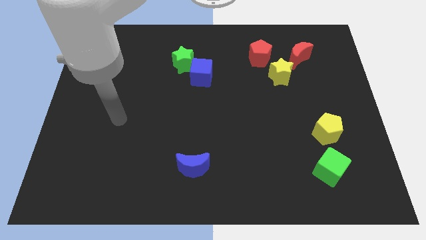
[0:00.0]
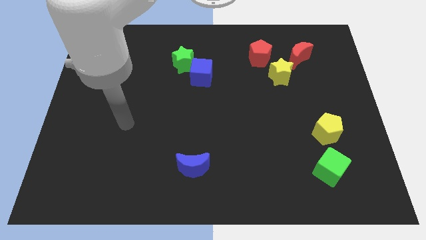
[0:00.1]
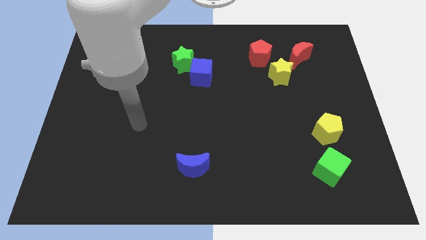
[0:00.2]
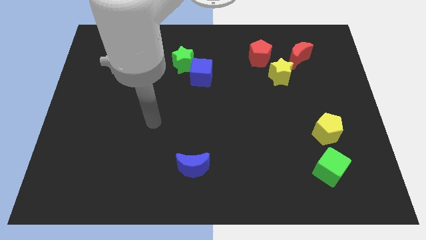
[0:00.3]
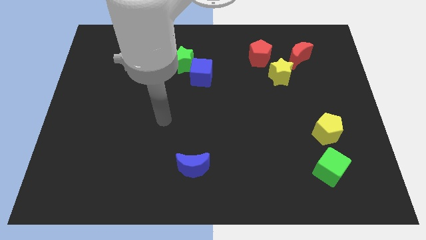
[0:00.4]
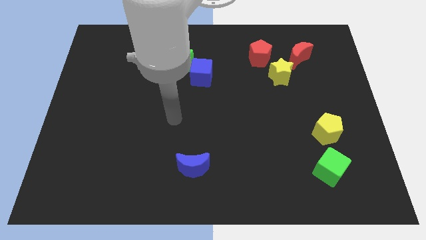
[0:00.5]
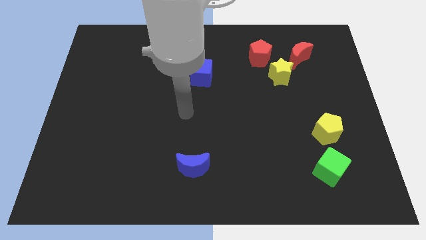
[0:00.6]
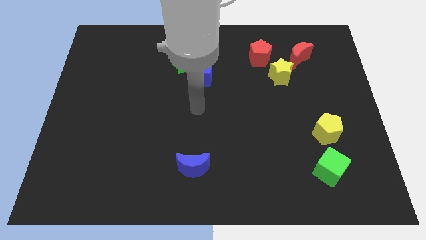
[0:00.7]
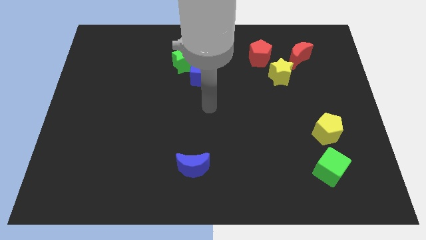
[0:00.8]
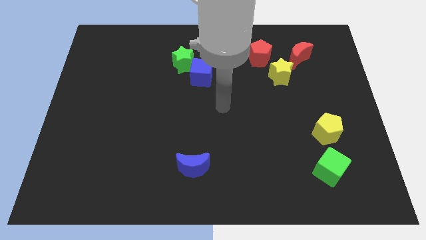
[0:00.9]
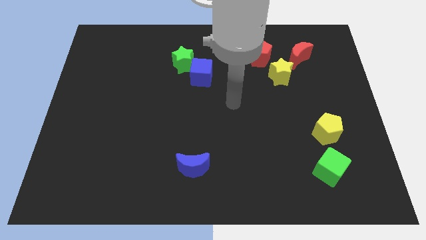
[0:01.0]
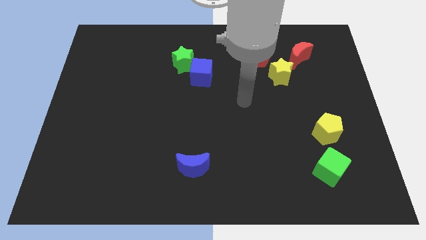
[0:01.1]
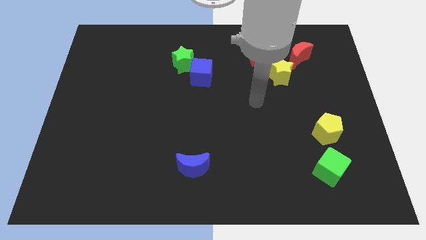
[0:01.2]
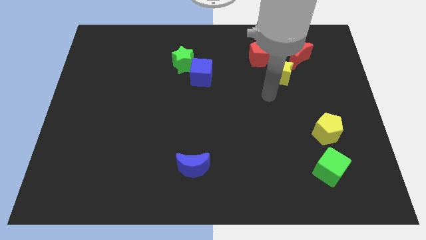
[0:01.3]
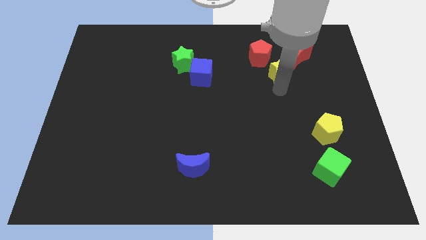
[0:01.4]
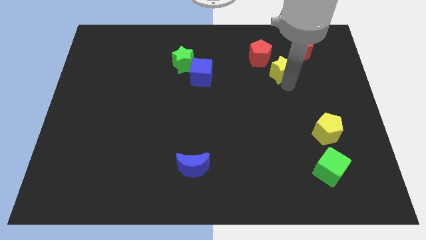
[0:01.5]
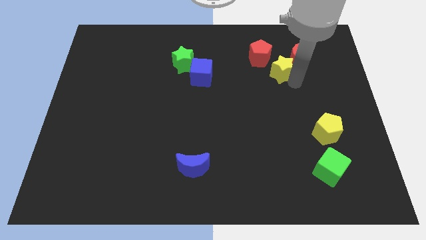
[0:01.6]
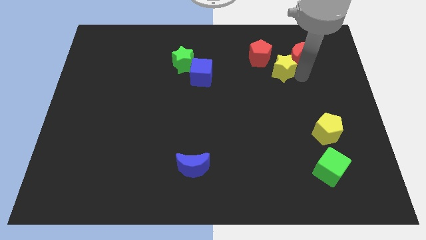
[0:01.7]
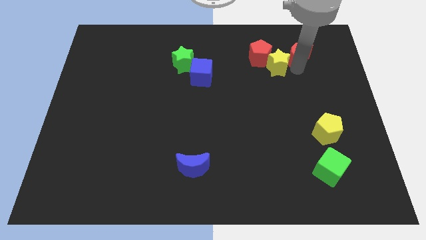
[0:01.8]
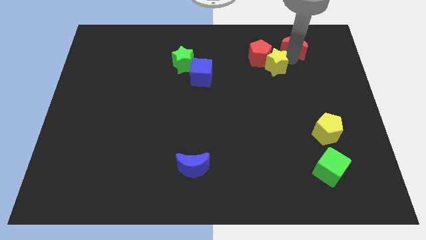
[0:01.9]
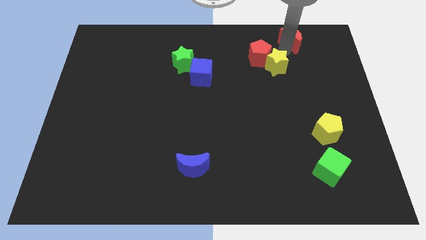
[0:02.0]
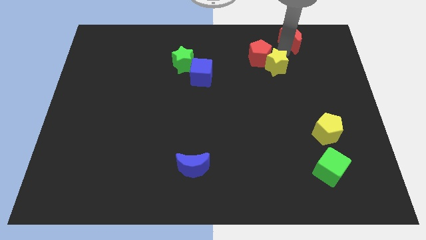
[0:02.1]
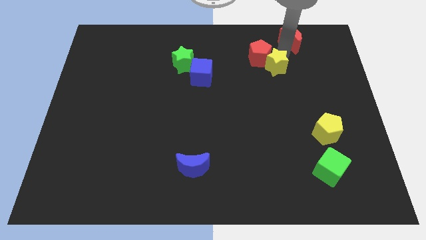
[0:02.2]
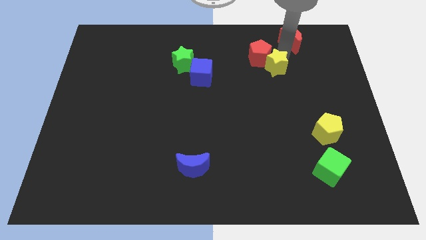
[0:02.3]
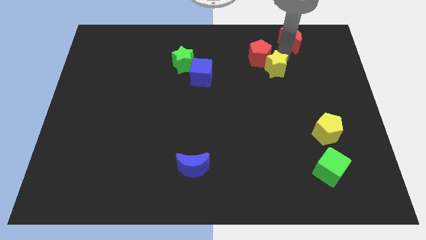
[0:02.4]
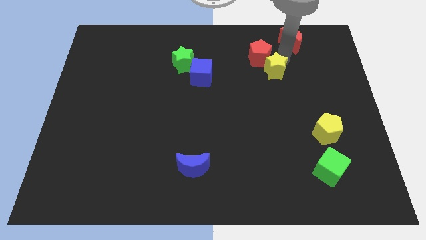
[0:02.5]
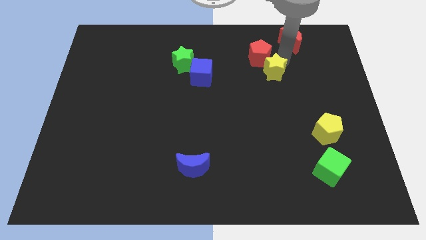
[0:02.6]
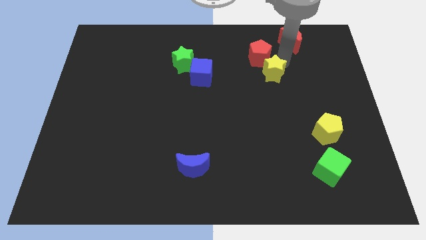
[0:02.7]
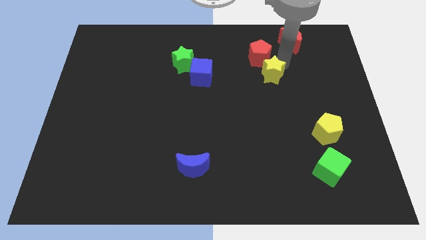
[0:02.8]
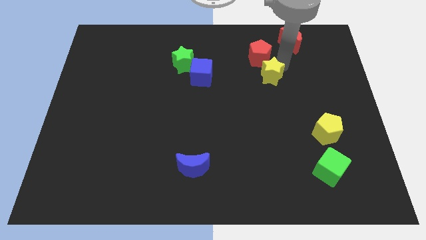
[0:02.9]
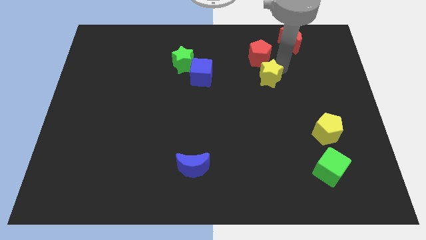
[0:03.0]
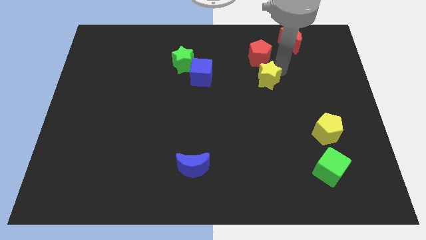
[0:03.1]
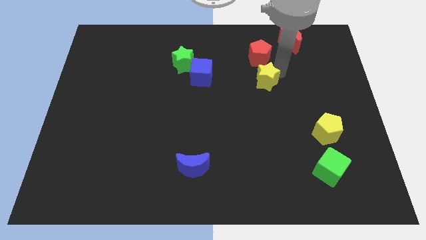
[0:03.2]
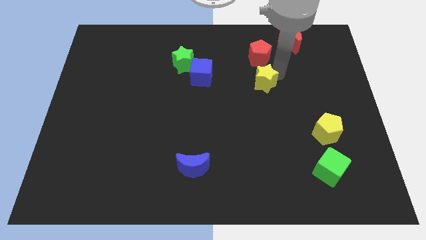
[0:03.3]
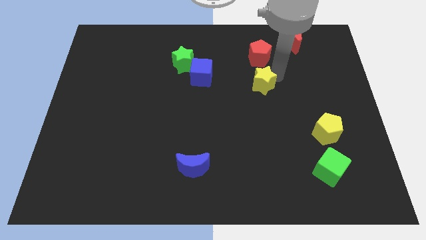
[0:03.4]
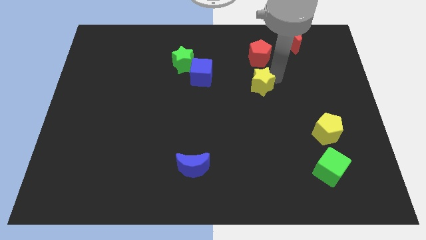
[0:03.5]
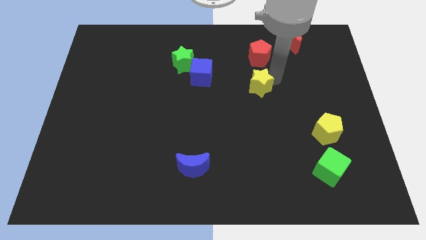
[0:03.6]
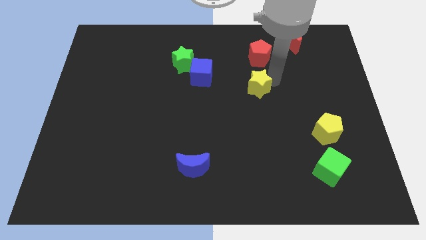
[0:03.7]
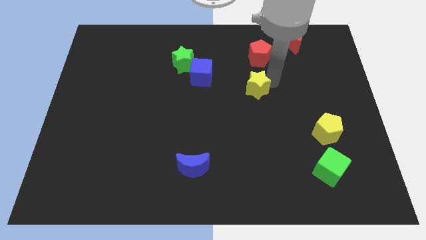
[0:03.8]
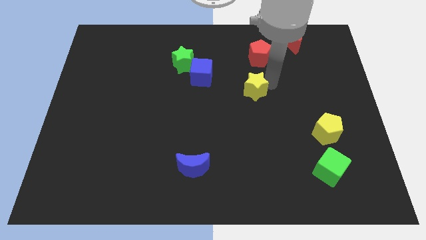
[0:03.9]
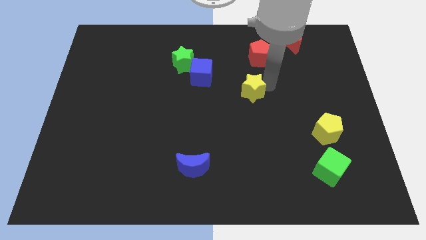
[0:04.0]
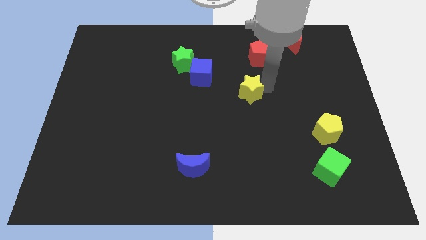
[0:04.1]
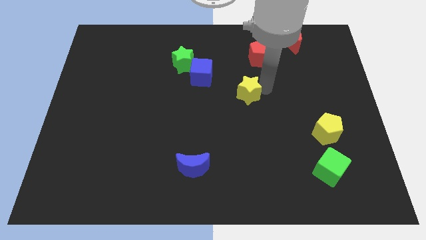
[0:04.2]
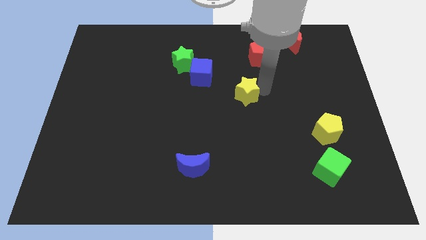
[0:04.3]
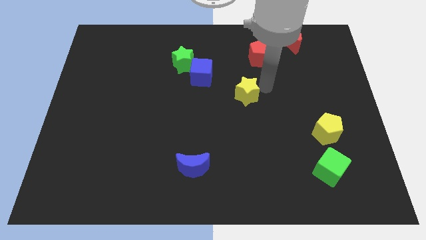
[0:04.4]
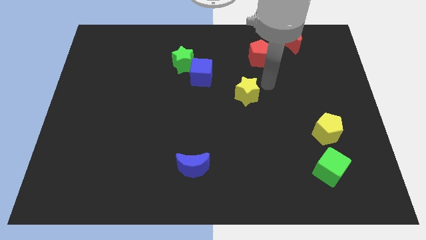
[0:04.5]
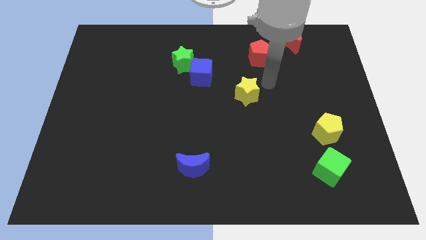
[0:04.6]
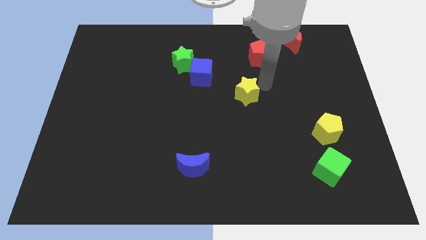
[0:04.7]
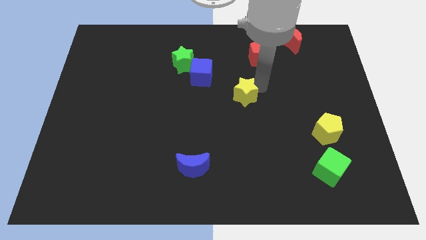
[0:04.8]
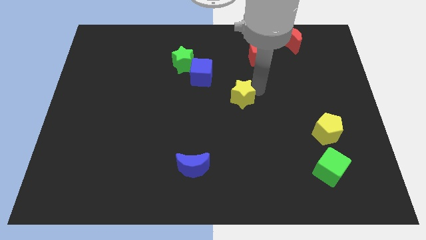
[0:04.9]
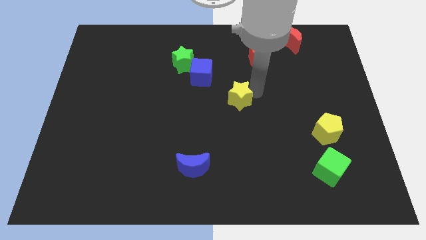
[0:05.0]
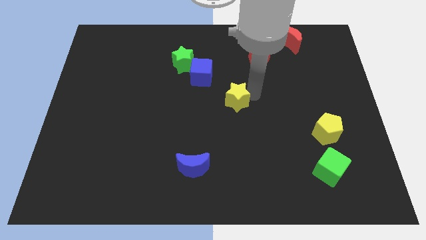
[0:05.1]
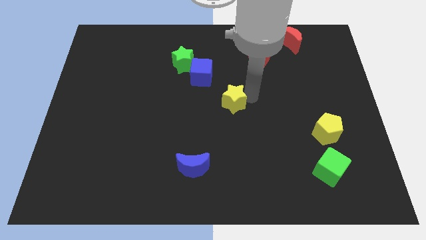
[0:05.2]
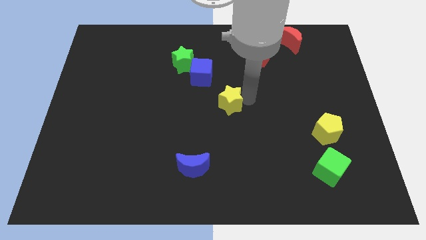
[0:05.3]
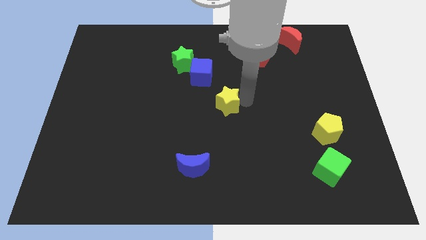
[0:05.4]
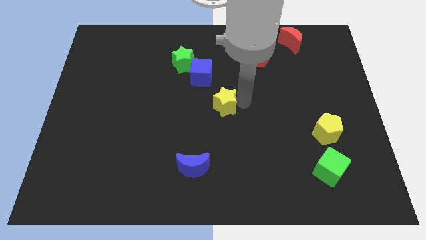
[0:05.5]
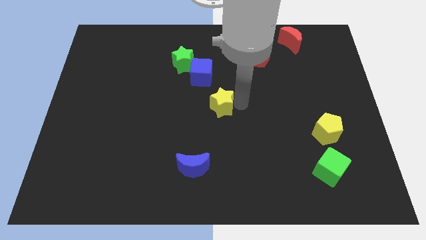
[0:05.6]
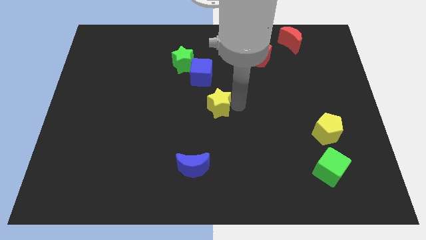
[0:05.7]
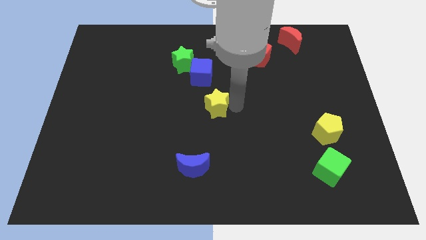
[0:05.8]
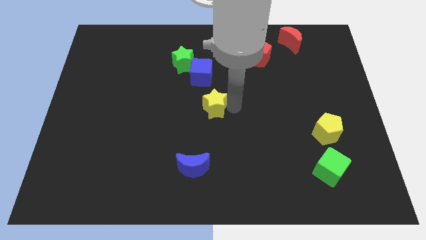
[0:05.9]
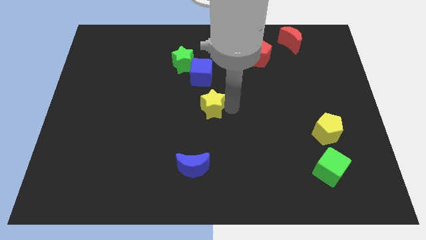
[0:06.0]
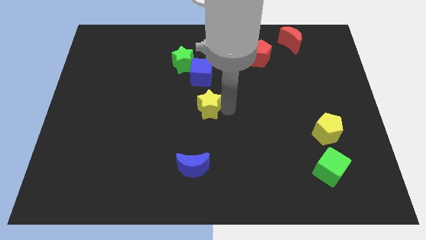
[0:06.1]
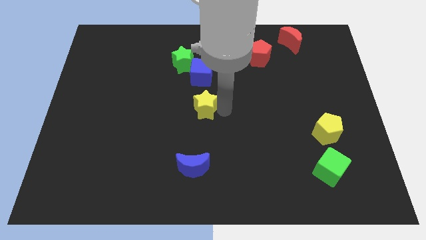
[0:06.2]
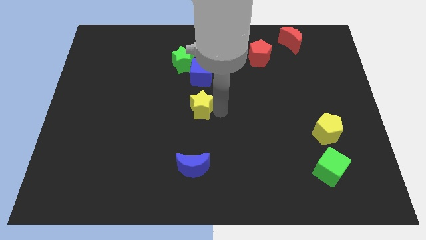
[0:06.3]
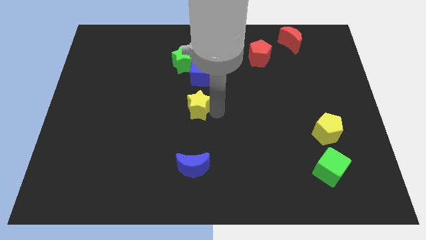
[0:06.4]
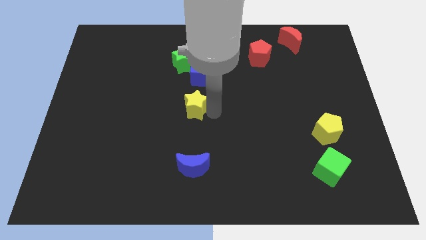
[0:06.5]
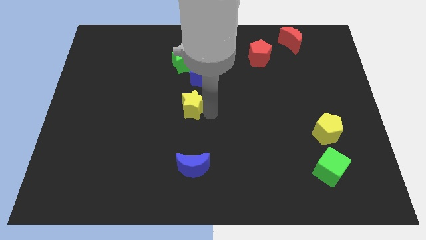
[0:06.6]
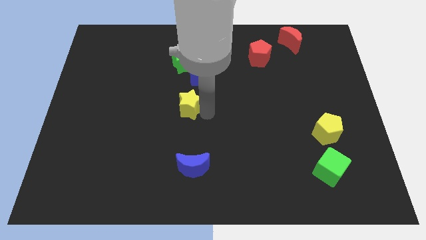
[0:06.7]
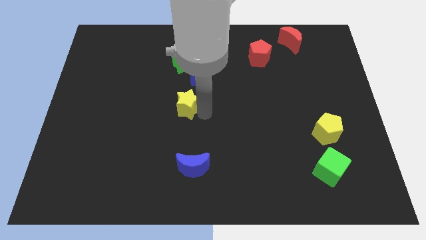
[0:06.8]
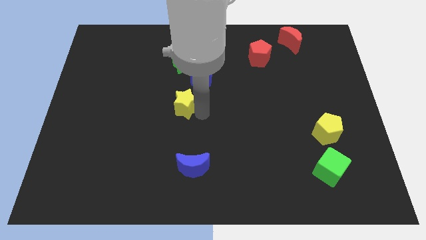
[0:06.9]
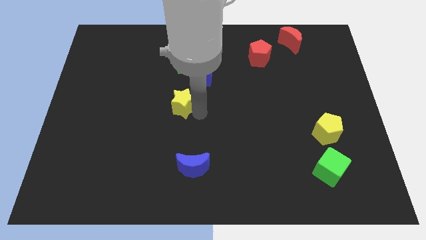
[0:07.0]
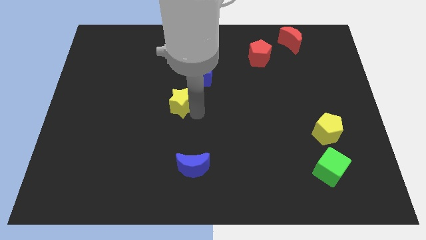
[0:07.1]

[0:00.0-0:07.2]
slide the yellow star left

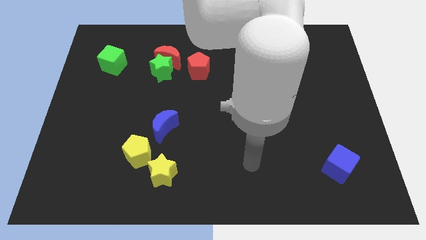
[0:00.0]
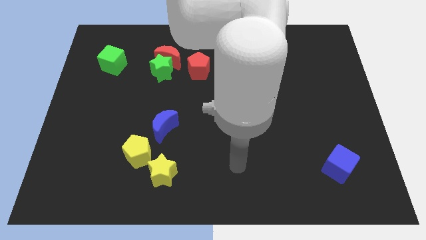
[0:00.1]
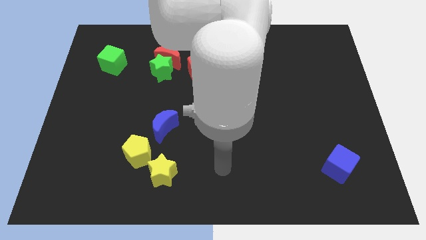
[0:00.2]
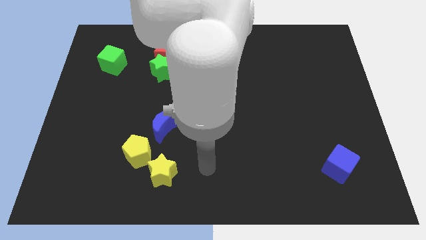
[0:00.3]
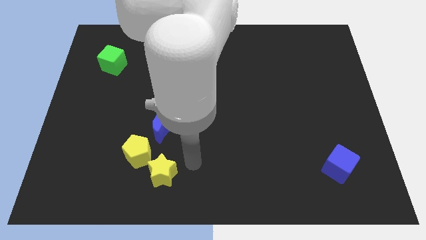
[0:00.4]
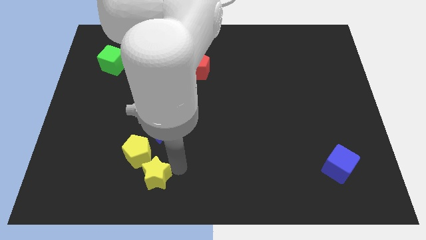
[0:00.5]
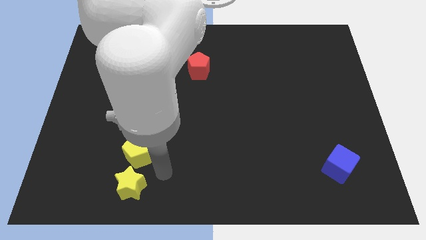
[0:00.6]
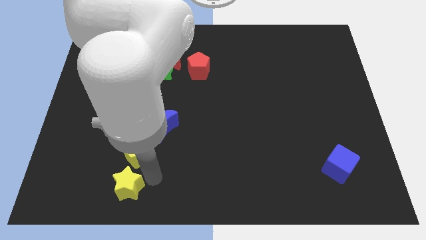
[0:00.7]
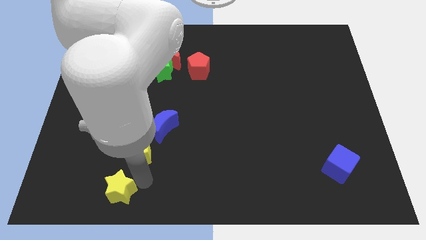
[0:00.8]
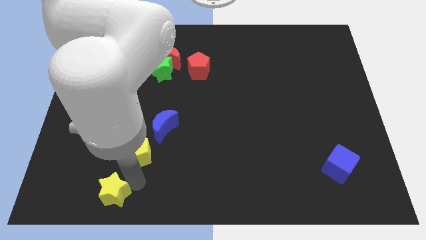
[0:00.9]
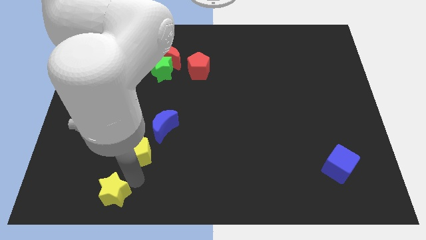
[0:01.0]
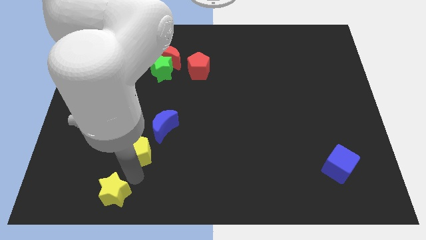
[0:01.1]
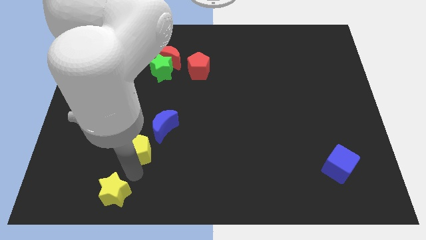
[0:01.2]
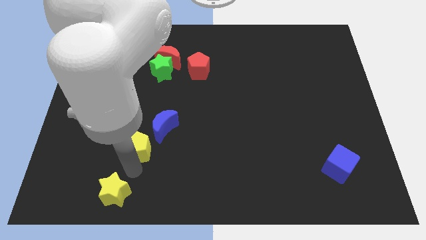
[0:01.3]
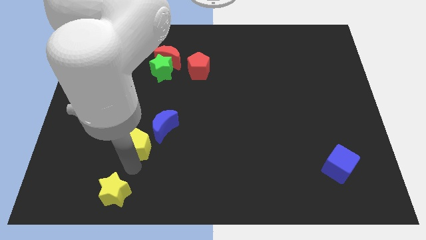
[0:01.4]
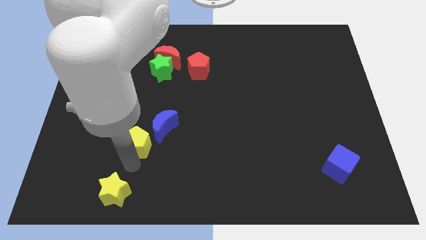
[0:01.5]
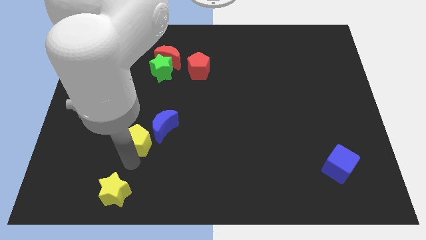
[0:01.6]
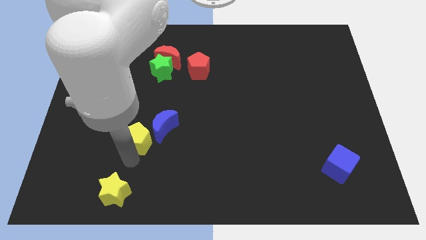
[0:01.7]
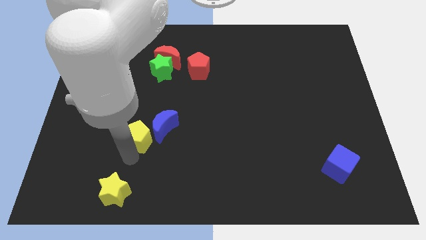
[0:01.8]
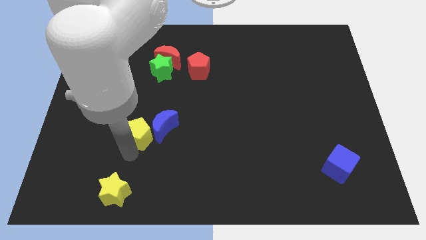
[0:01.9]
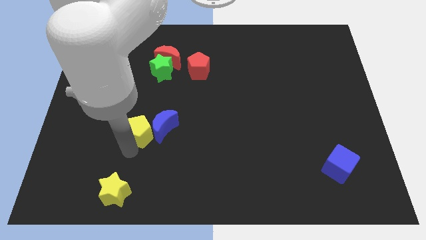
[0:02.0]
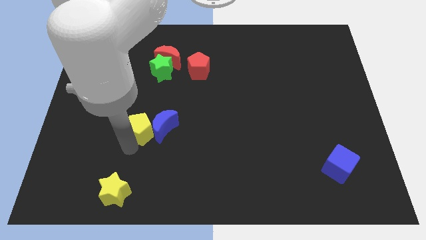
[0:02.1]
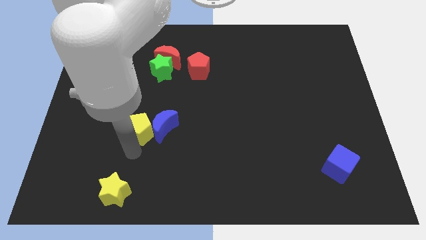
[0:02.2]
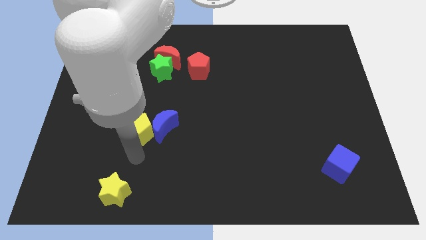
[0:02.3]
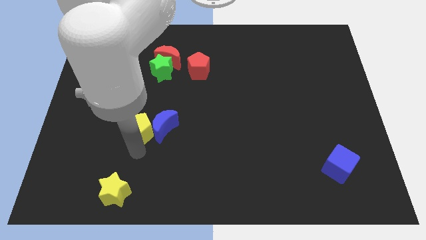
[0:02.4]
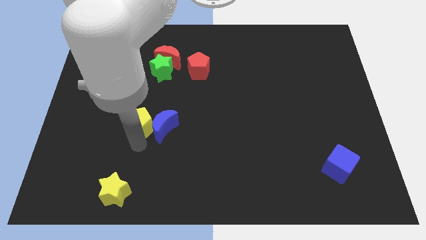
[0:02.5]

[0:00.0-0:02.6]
move the yellow pentagon up slightly
